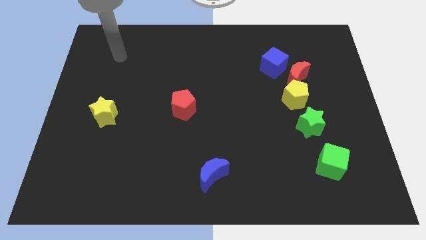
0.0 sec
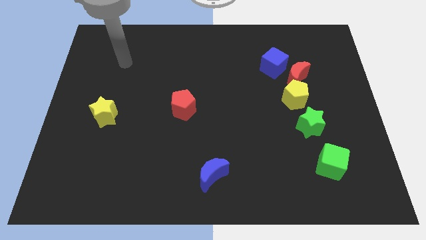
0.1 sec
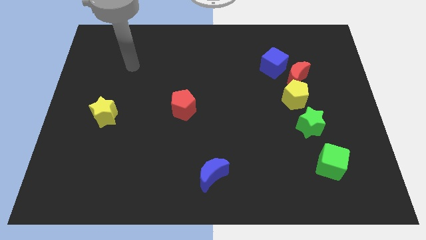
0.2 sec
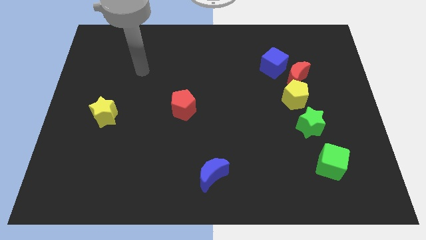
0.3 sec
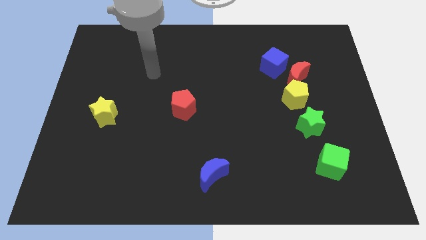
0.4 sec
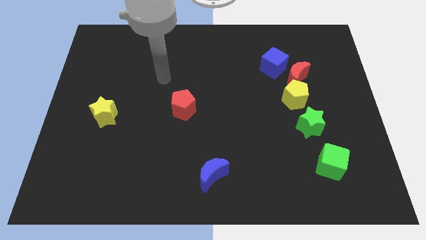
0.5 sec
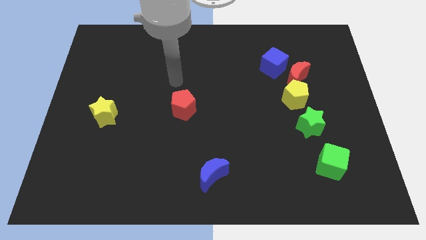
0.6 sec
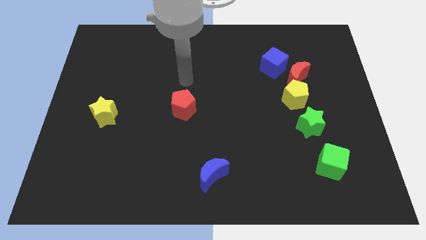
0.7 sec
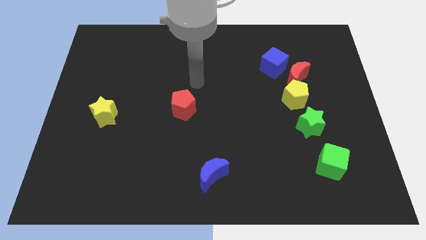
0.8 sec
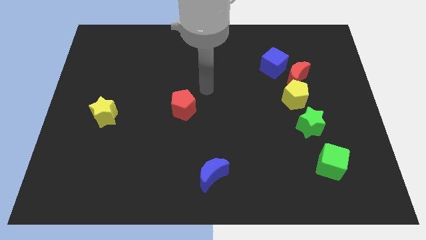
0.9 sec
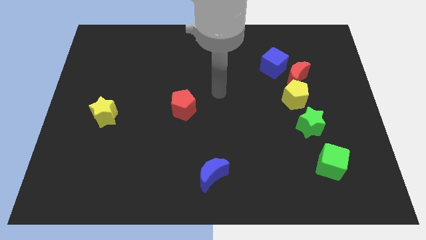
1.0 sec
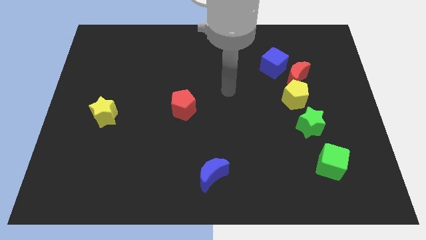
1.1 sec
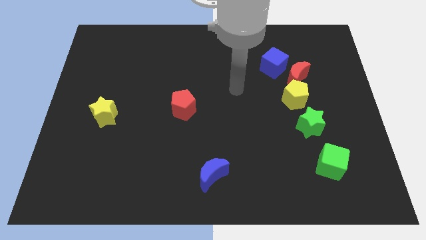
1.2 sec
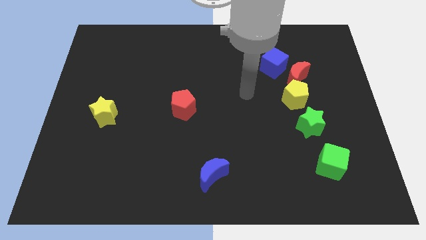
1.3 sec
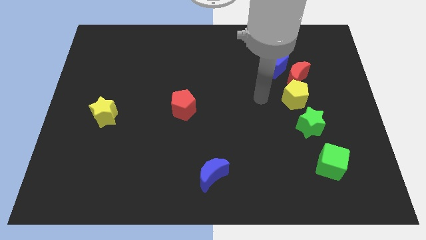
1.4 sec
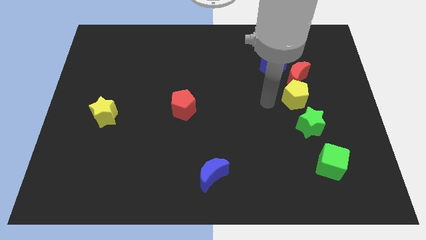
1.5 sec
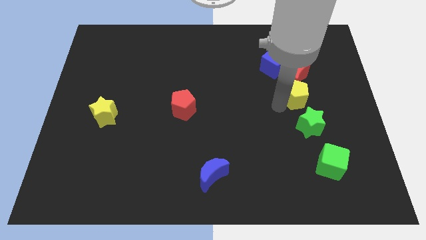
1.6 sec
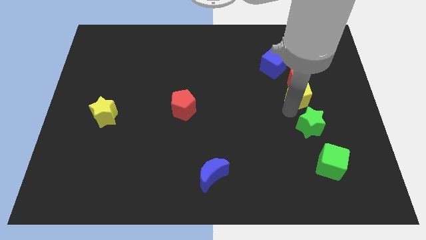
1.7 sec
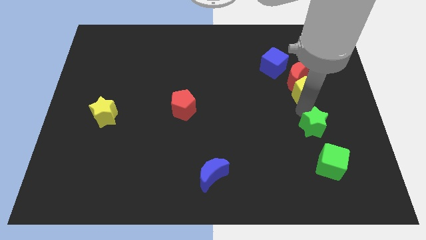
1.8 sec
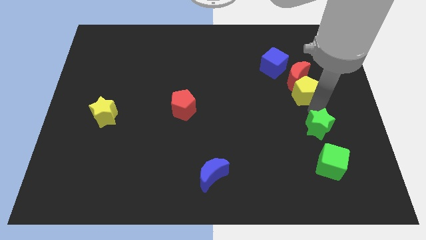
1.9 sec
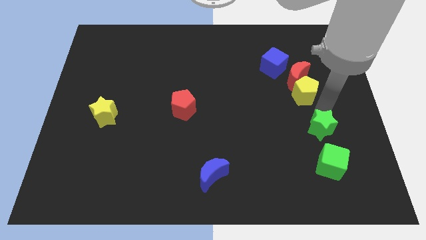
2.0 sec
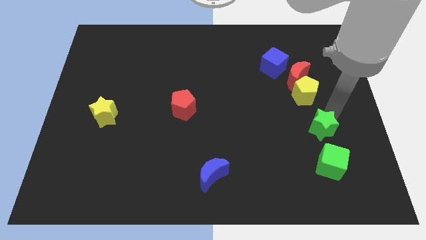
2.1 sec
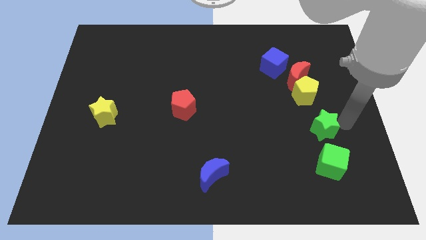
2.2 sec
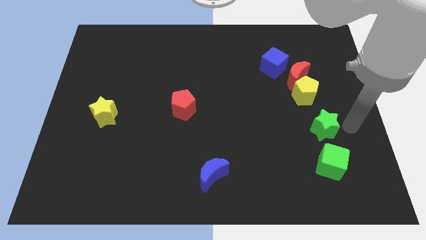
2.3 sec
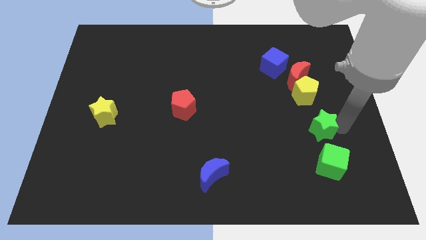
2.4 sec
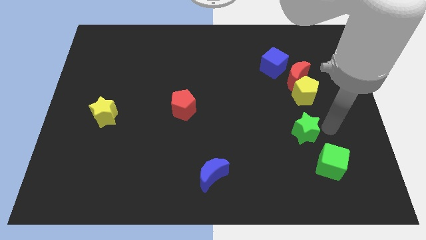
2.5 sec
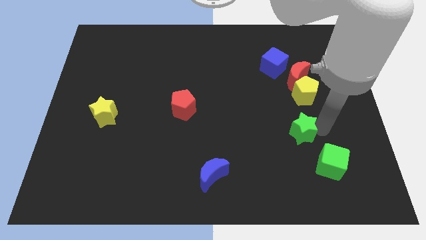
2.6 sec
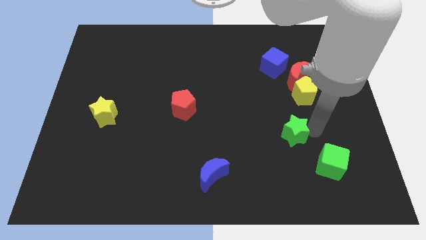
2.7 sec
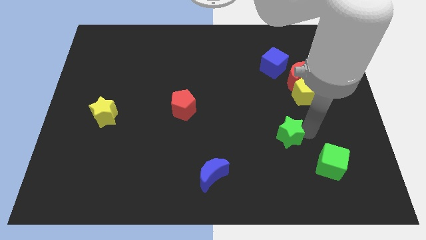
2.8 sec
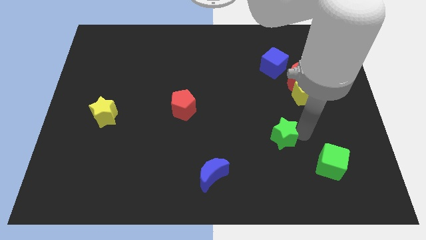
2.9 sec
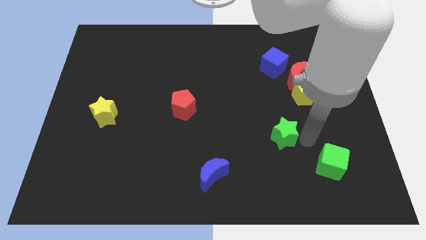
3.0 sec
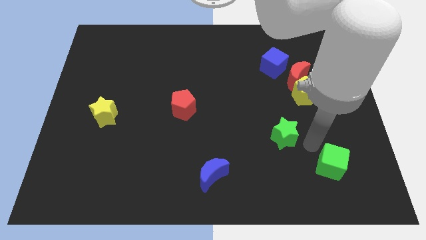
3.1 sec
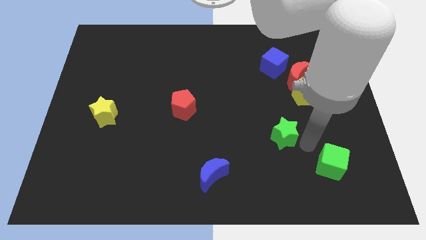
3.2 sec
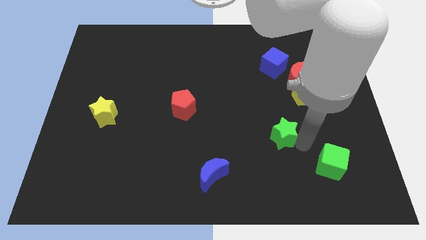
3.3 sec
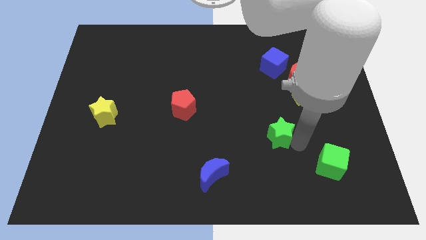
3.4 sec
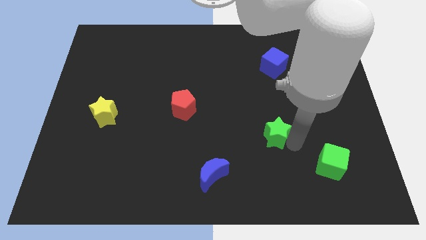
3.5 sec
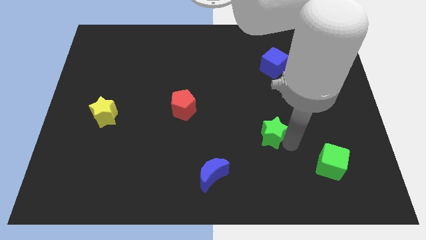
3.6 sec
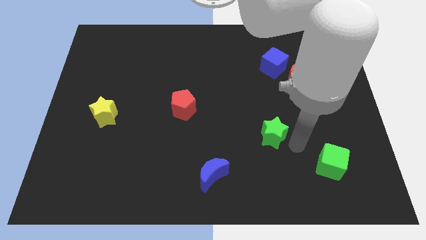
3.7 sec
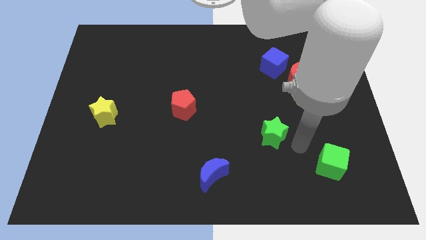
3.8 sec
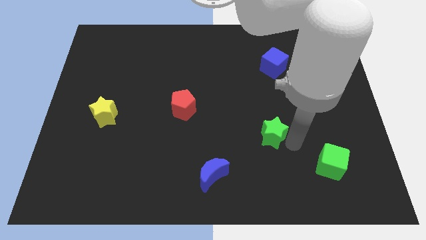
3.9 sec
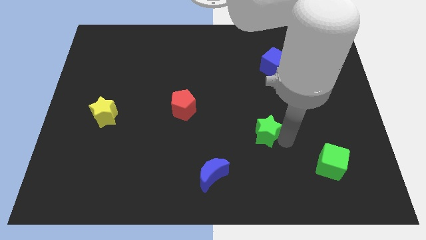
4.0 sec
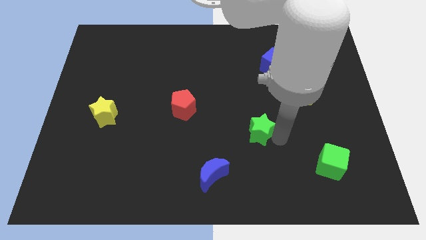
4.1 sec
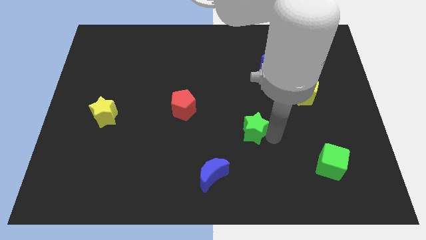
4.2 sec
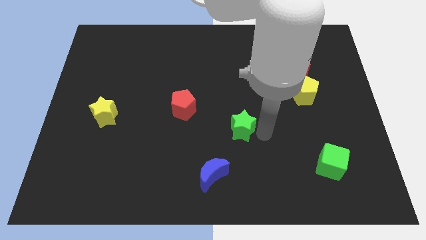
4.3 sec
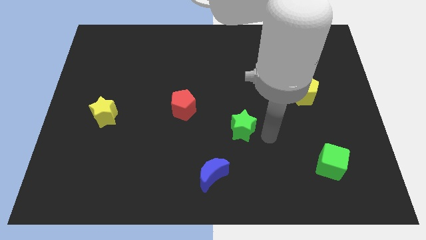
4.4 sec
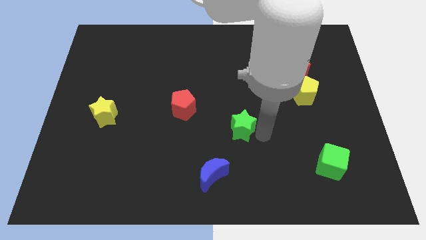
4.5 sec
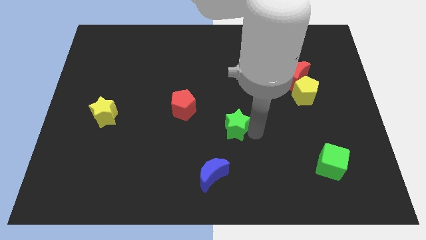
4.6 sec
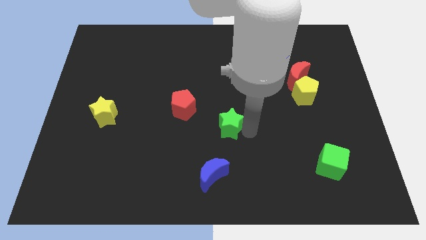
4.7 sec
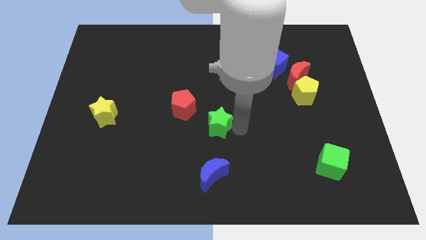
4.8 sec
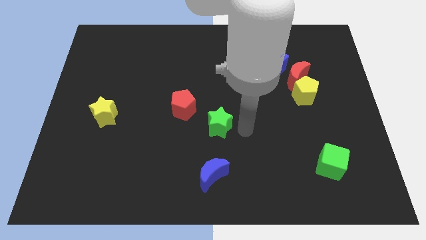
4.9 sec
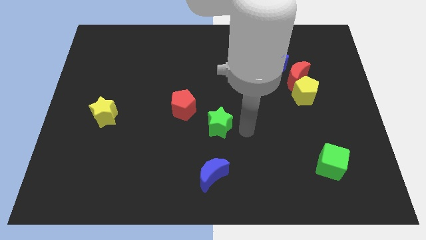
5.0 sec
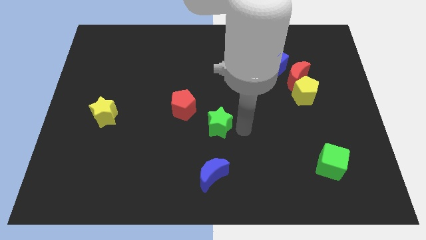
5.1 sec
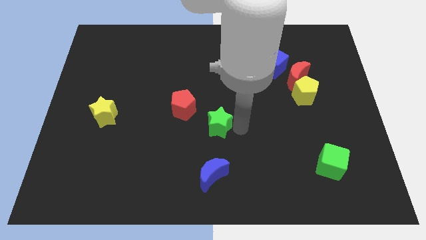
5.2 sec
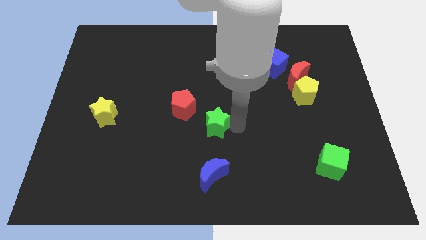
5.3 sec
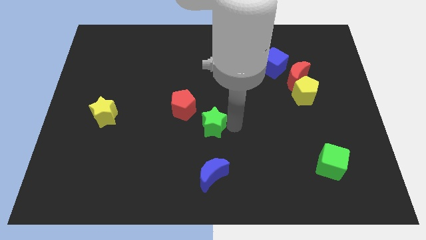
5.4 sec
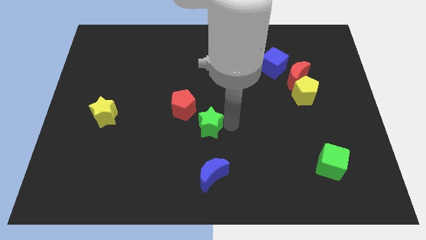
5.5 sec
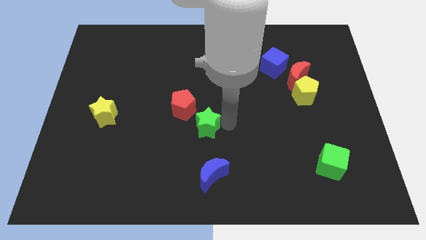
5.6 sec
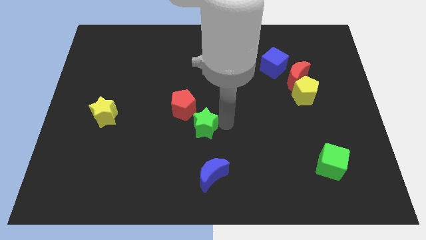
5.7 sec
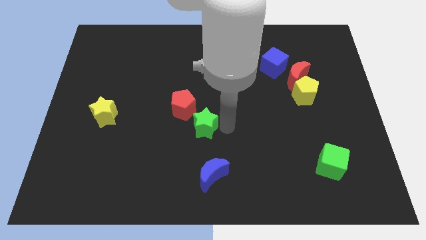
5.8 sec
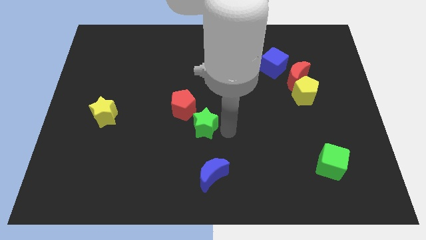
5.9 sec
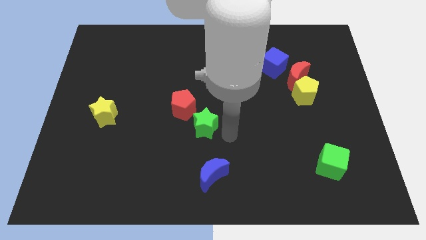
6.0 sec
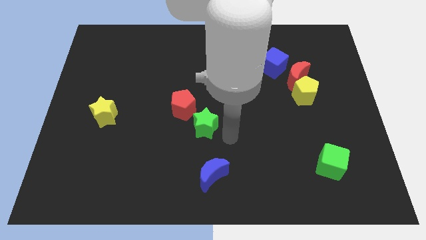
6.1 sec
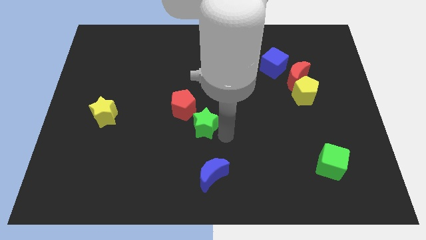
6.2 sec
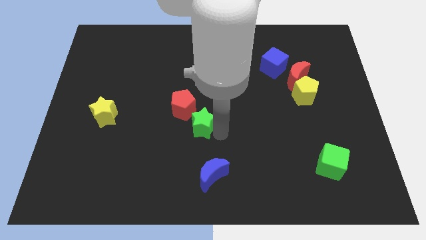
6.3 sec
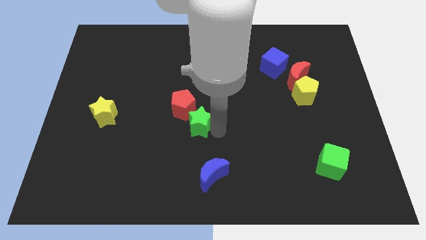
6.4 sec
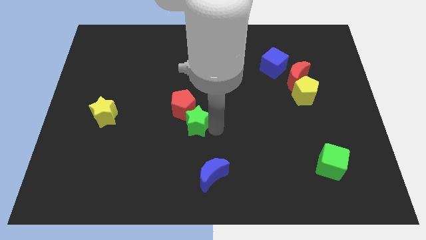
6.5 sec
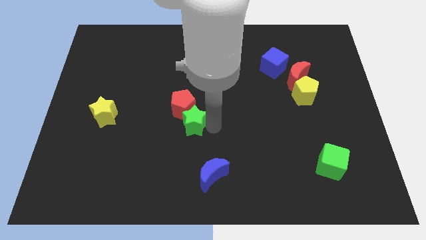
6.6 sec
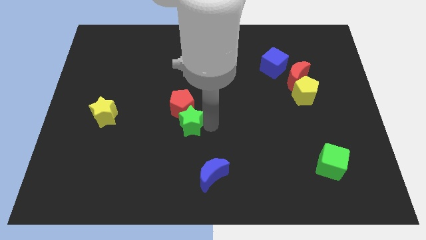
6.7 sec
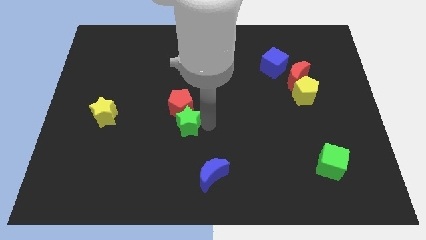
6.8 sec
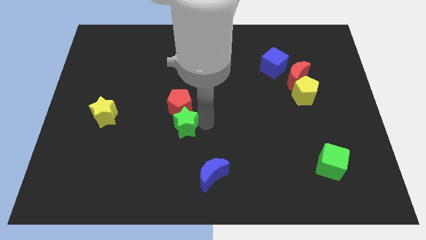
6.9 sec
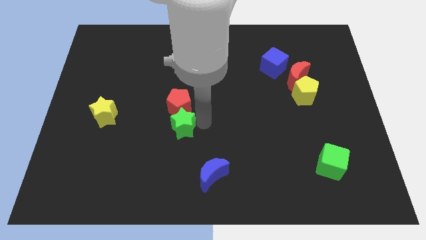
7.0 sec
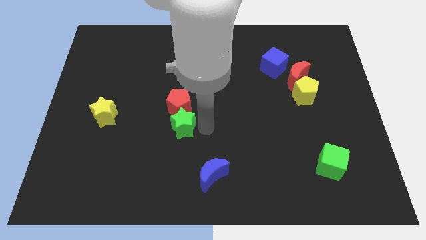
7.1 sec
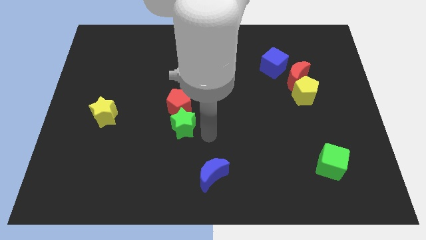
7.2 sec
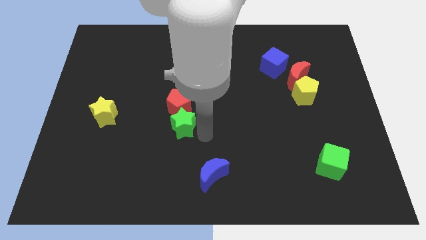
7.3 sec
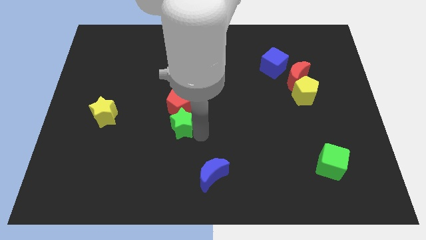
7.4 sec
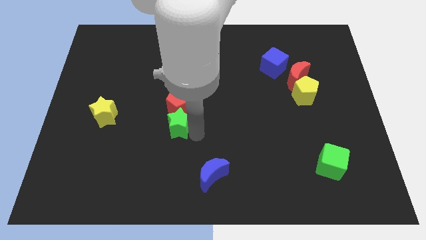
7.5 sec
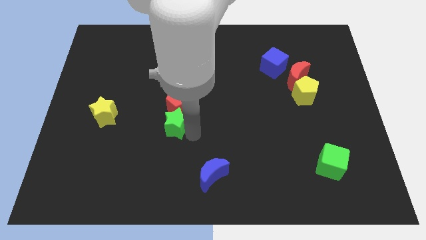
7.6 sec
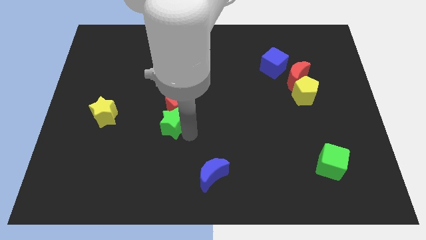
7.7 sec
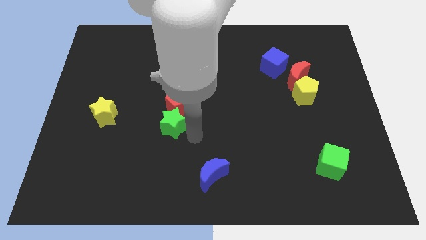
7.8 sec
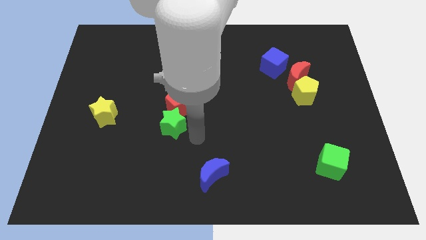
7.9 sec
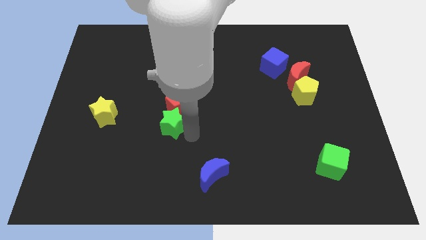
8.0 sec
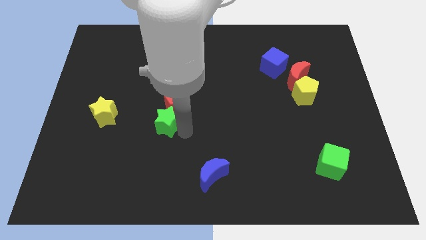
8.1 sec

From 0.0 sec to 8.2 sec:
push the green star right of the yellow star
